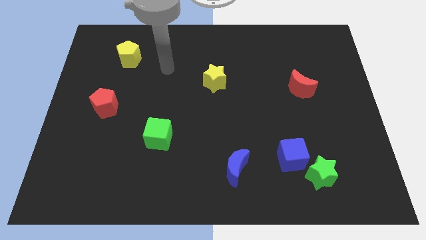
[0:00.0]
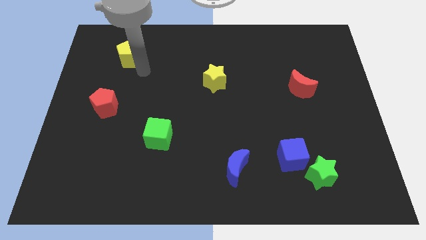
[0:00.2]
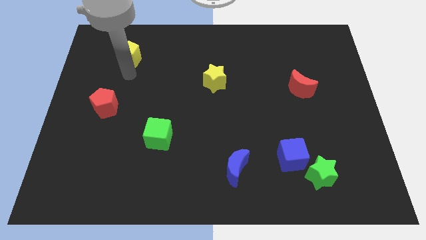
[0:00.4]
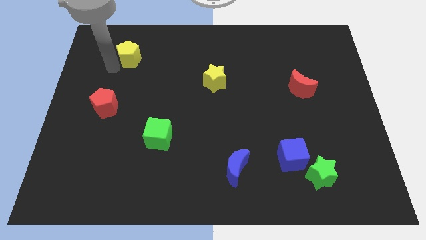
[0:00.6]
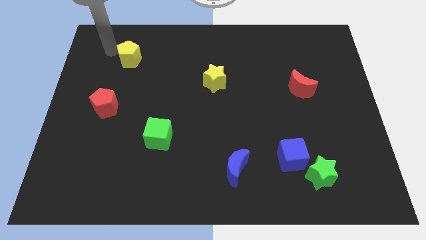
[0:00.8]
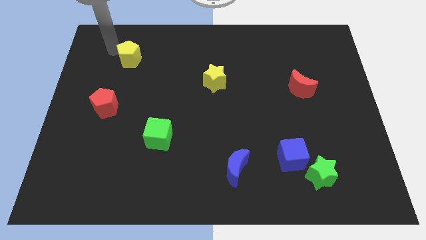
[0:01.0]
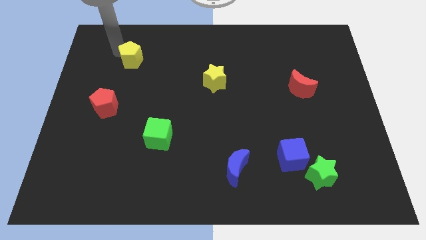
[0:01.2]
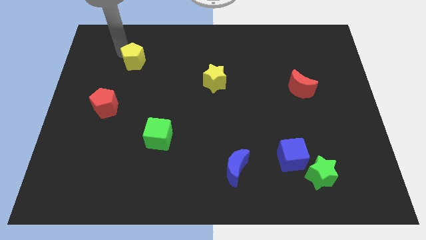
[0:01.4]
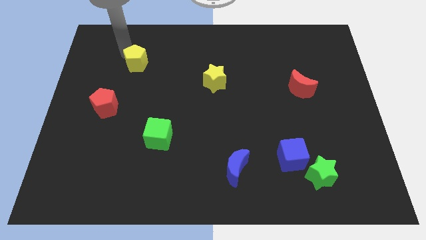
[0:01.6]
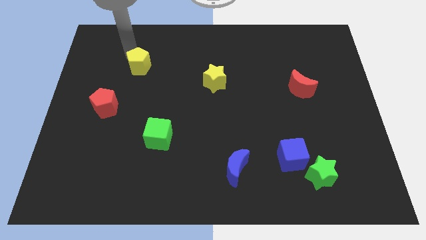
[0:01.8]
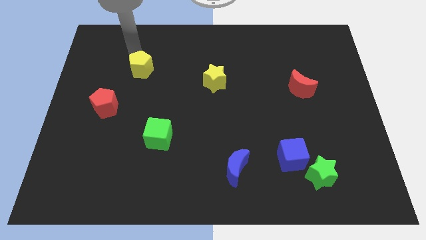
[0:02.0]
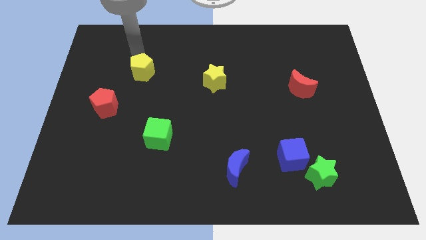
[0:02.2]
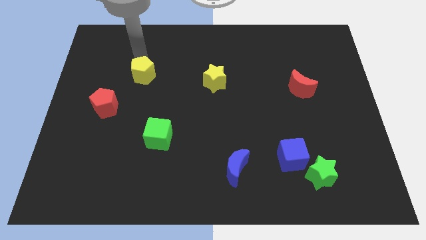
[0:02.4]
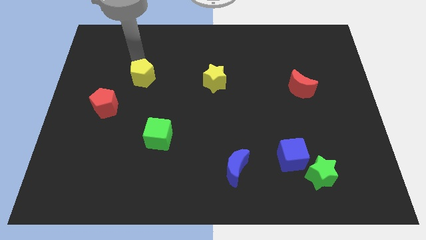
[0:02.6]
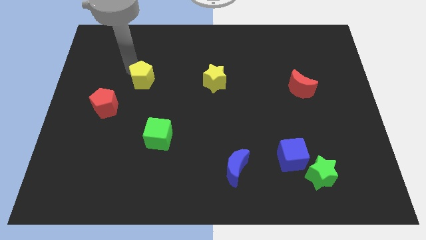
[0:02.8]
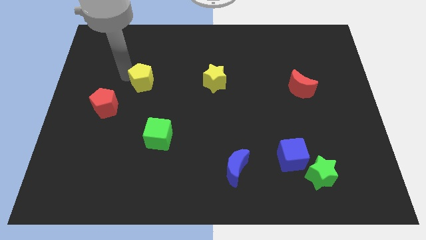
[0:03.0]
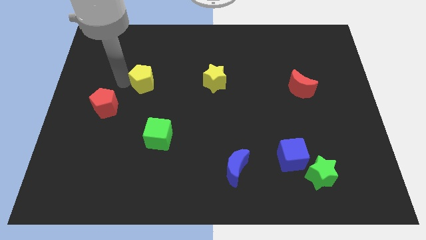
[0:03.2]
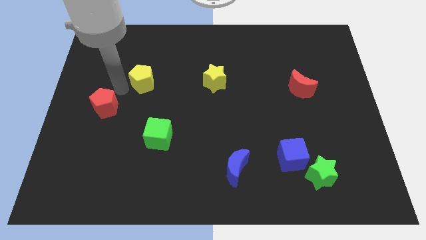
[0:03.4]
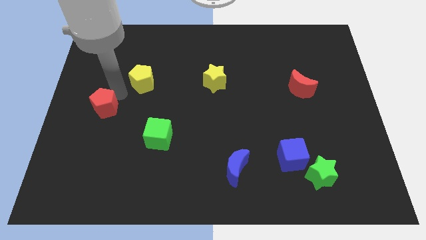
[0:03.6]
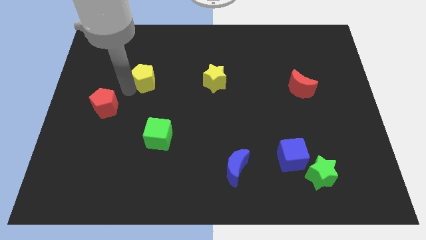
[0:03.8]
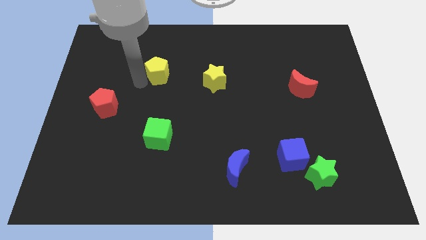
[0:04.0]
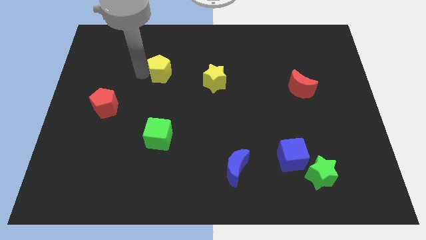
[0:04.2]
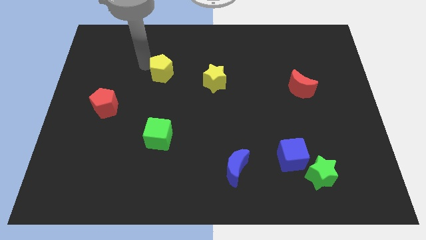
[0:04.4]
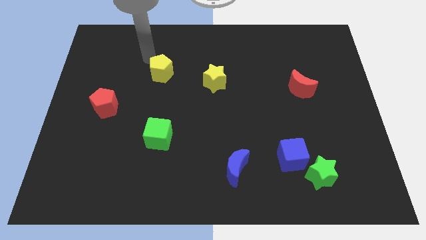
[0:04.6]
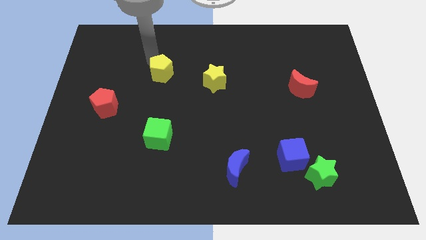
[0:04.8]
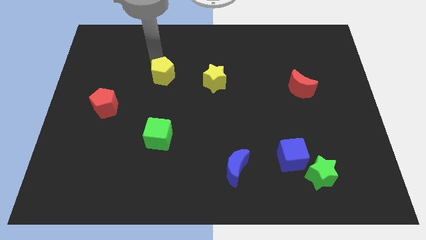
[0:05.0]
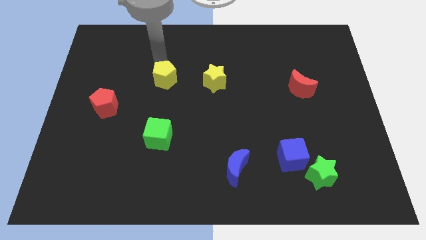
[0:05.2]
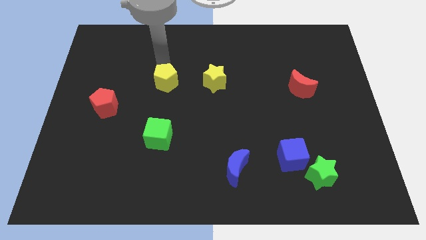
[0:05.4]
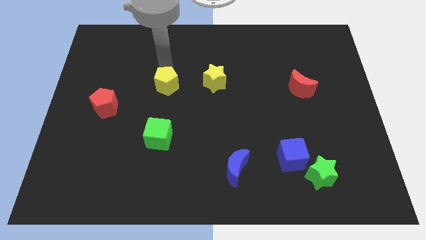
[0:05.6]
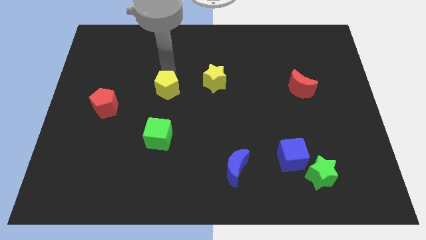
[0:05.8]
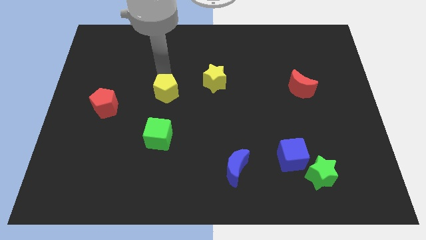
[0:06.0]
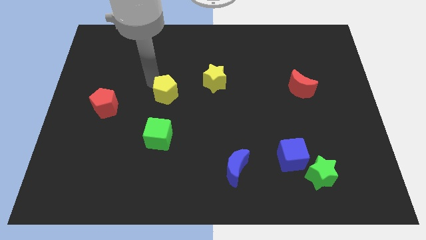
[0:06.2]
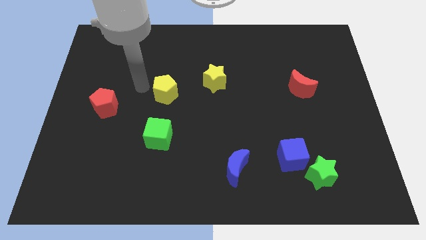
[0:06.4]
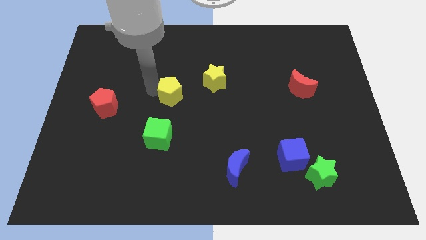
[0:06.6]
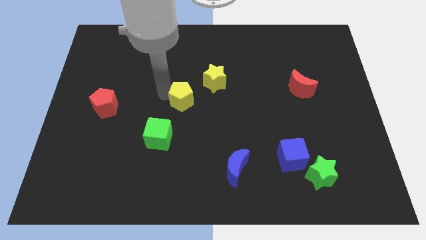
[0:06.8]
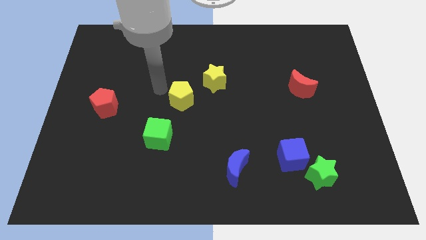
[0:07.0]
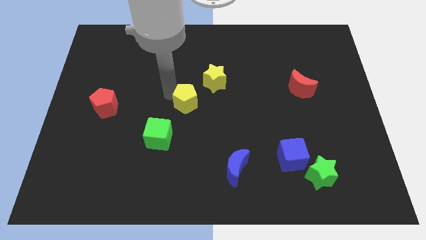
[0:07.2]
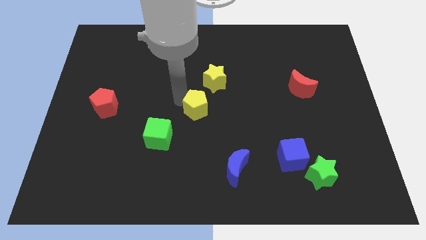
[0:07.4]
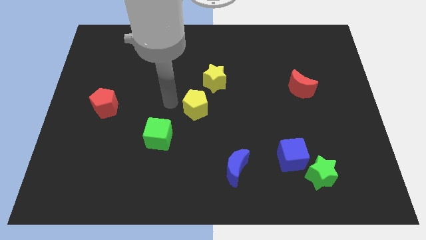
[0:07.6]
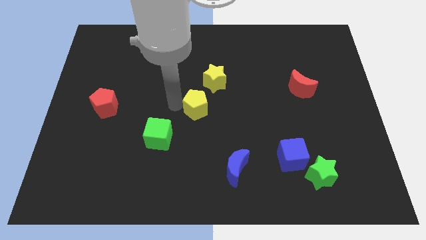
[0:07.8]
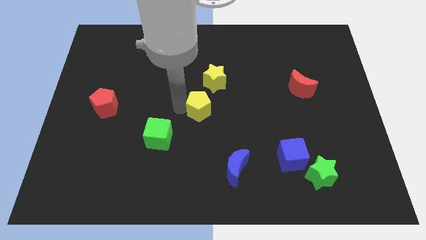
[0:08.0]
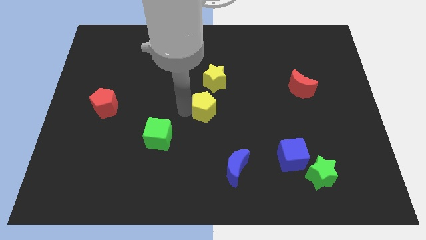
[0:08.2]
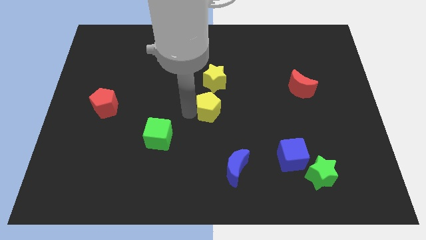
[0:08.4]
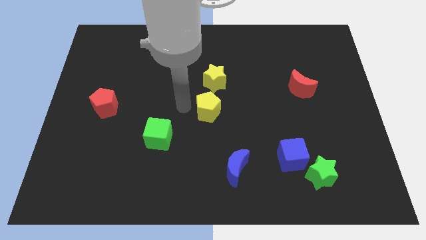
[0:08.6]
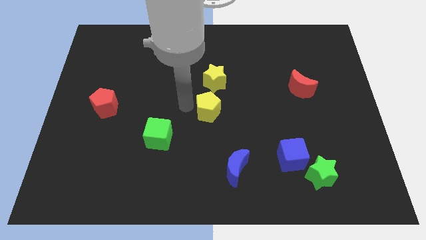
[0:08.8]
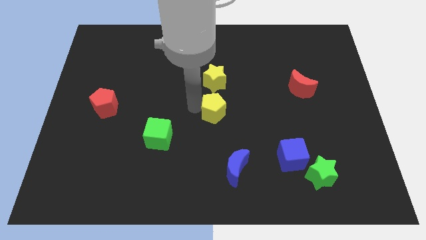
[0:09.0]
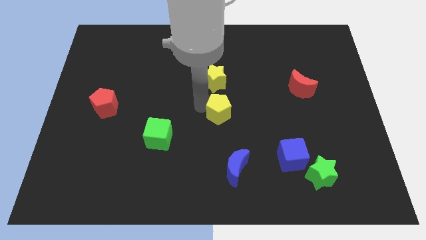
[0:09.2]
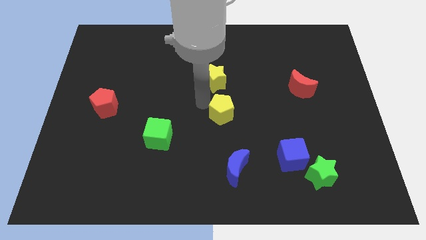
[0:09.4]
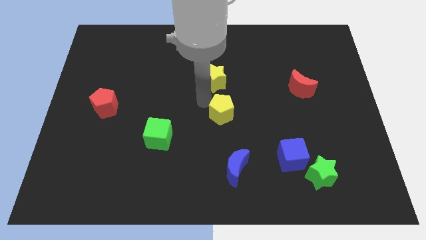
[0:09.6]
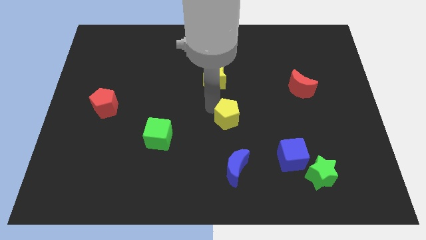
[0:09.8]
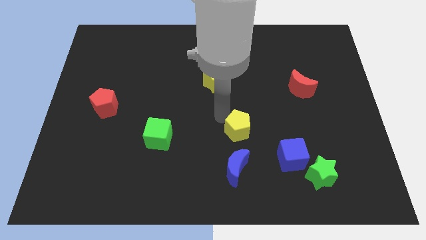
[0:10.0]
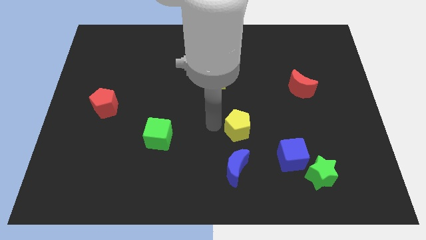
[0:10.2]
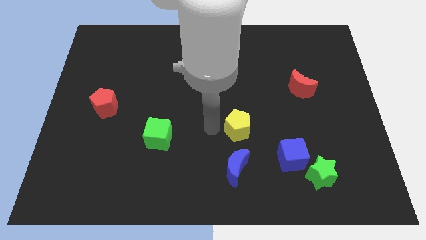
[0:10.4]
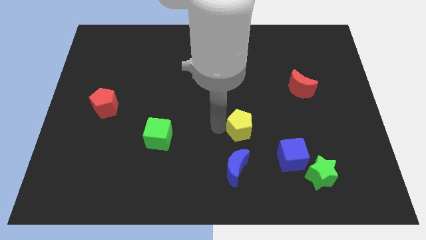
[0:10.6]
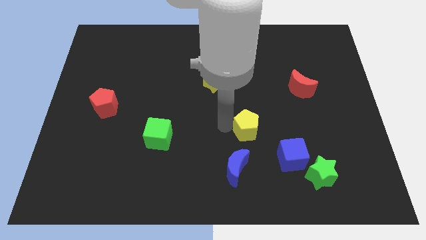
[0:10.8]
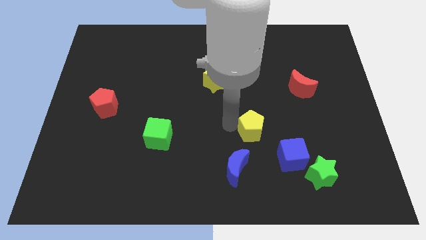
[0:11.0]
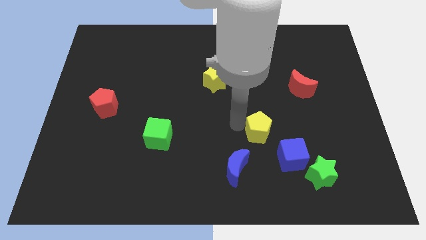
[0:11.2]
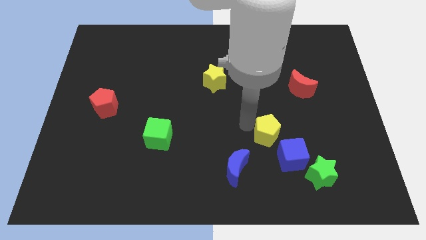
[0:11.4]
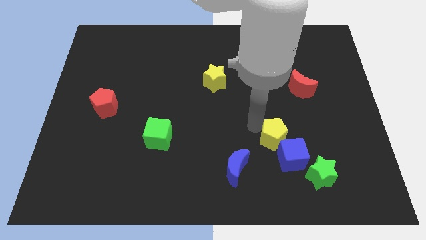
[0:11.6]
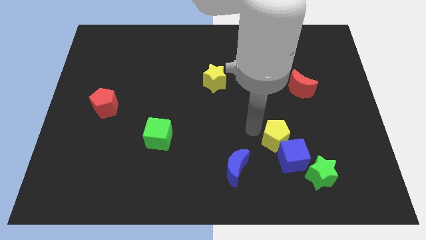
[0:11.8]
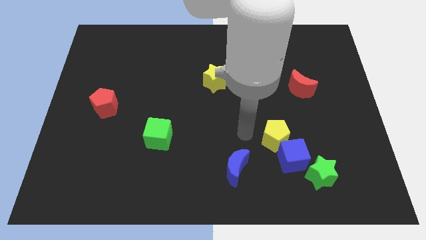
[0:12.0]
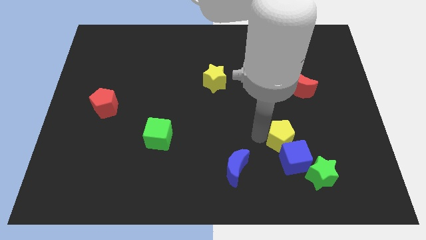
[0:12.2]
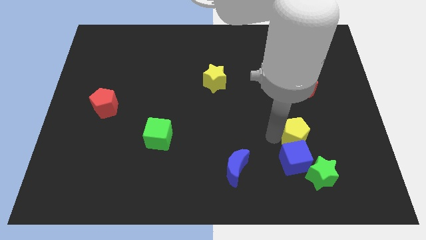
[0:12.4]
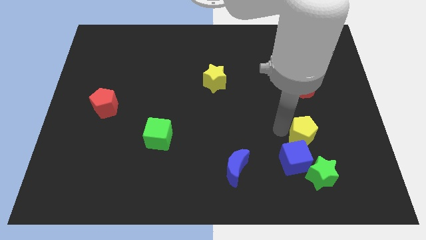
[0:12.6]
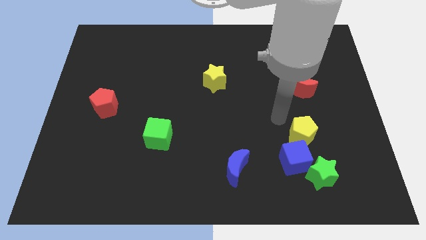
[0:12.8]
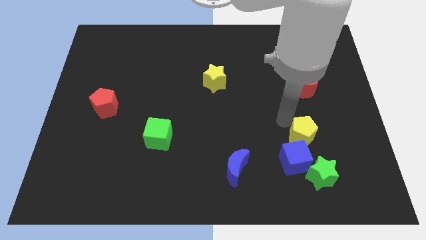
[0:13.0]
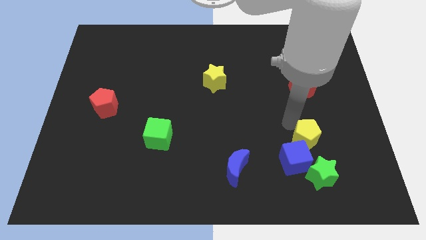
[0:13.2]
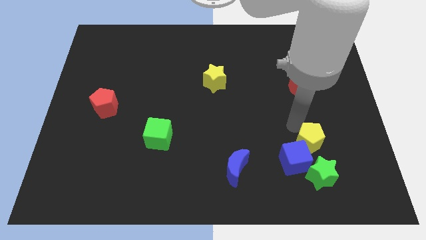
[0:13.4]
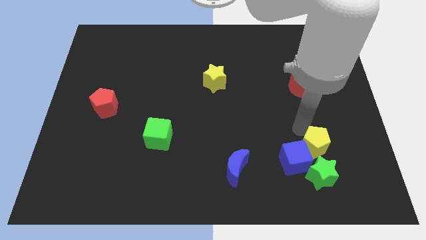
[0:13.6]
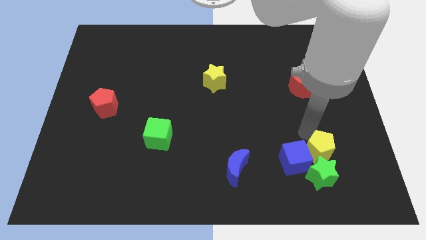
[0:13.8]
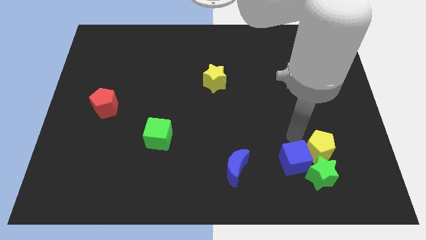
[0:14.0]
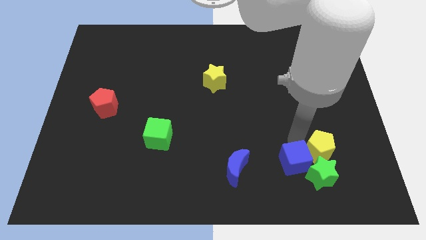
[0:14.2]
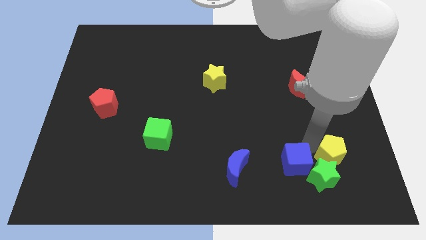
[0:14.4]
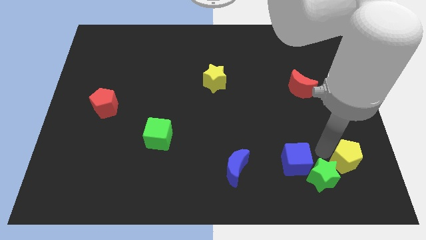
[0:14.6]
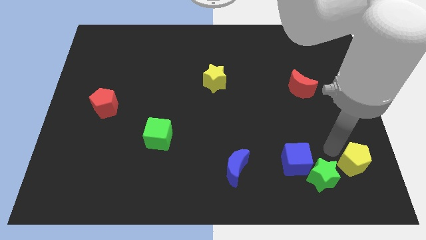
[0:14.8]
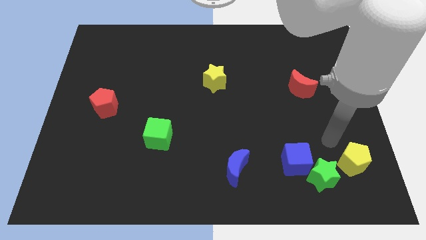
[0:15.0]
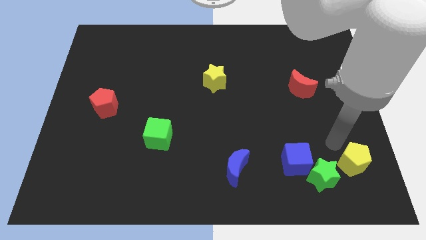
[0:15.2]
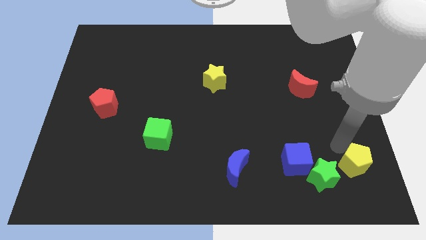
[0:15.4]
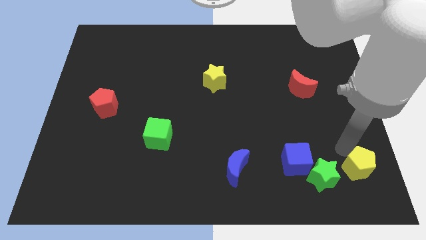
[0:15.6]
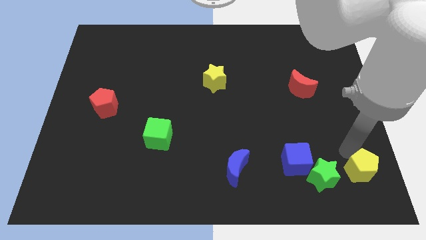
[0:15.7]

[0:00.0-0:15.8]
put the yellow pentagon to the bottom right corner
